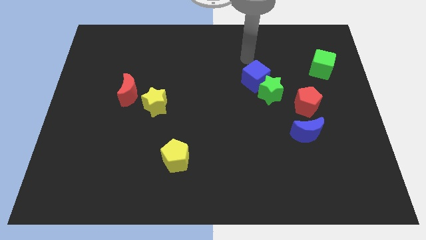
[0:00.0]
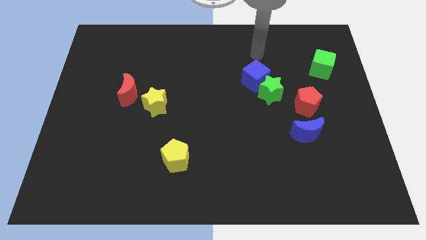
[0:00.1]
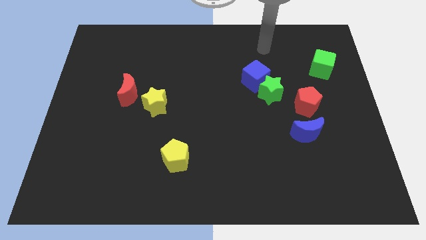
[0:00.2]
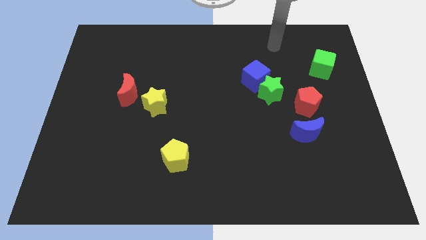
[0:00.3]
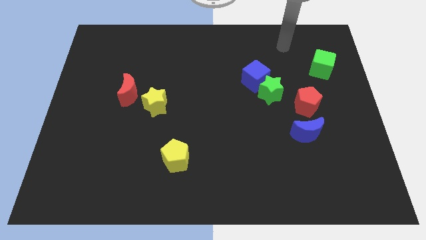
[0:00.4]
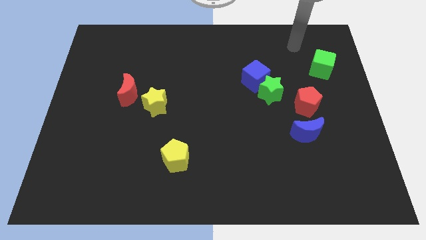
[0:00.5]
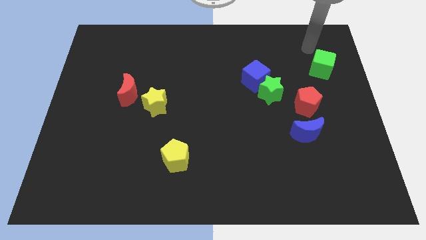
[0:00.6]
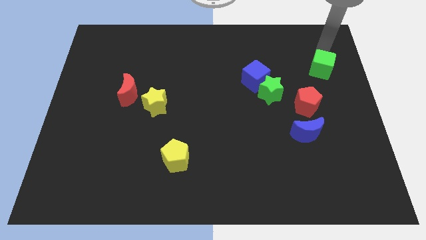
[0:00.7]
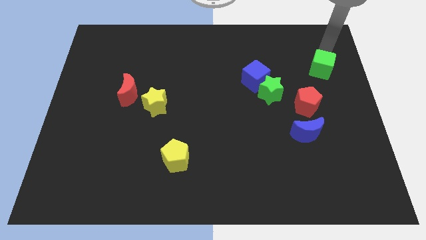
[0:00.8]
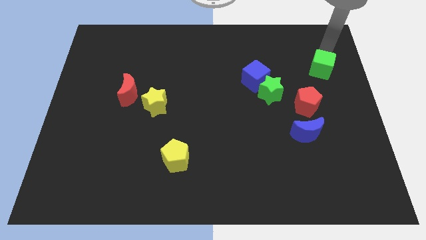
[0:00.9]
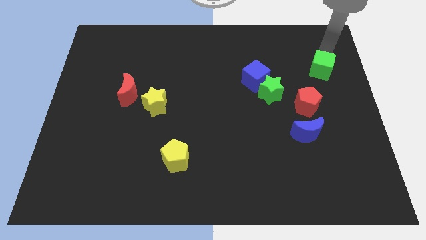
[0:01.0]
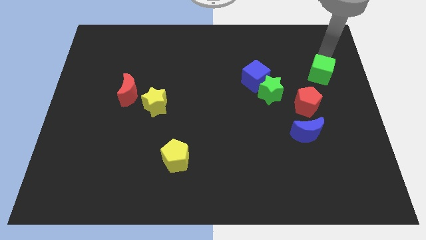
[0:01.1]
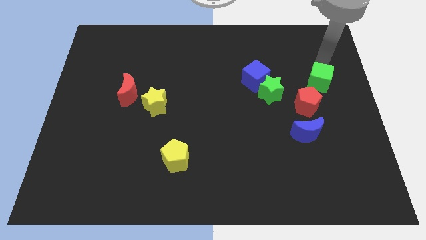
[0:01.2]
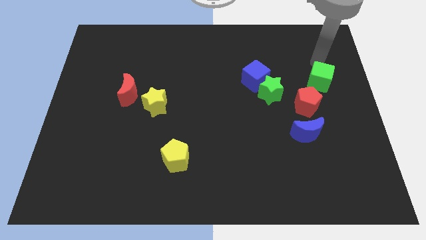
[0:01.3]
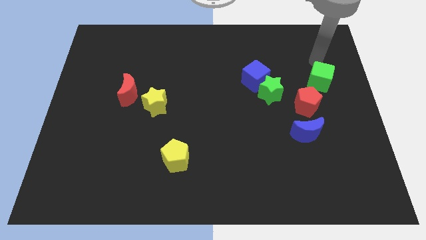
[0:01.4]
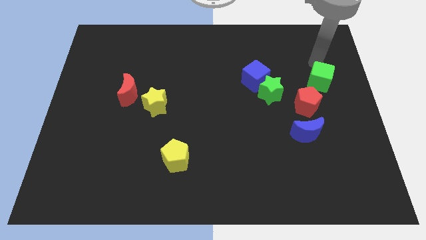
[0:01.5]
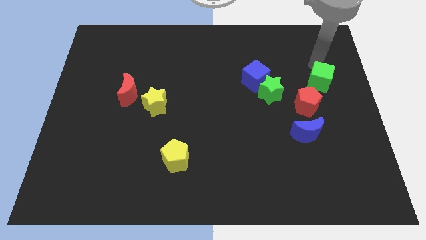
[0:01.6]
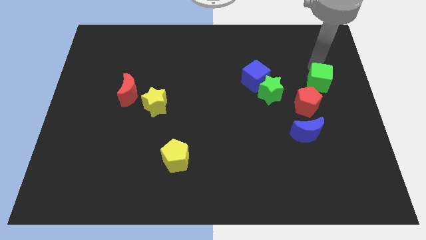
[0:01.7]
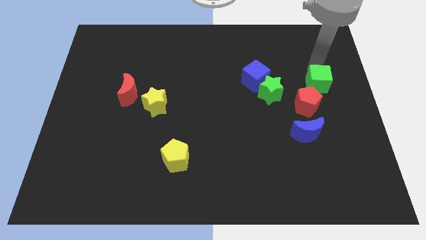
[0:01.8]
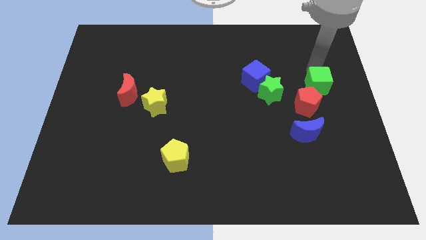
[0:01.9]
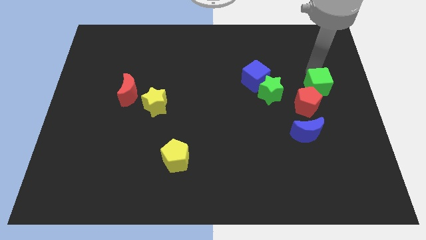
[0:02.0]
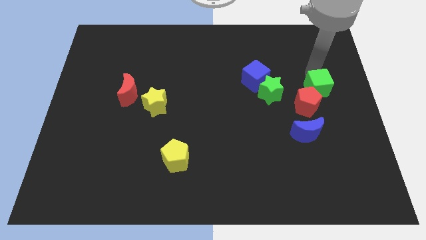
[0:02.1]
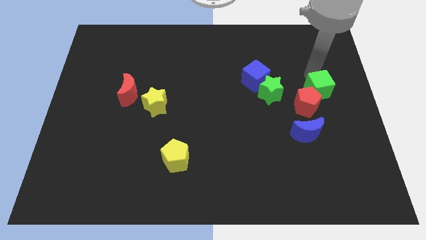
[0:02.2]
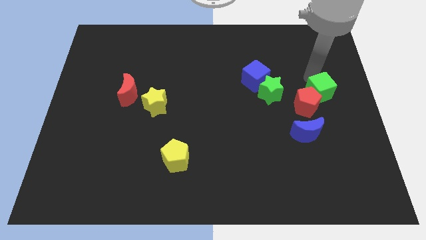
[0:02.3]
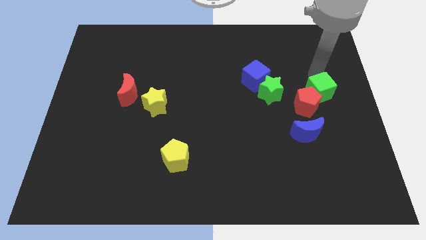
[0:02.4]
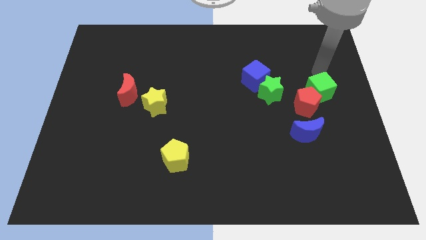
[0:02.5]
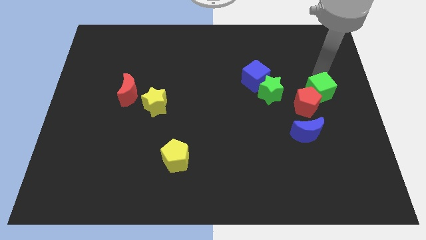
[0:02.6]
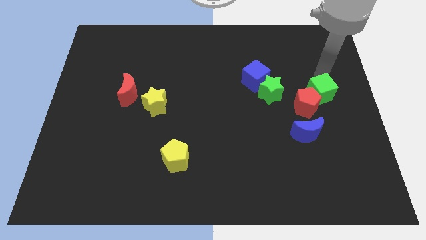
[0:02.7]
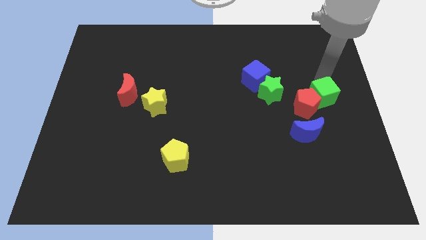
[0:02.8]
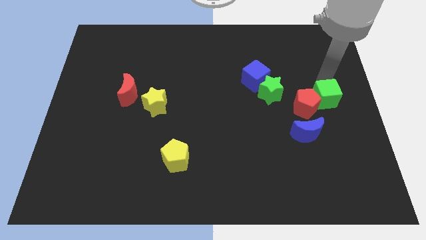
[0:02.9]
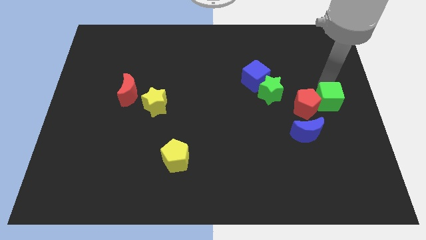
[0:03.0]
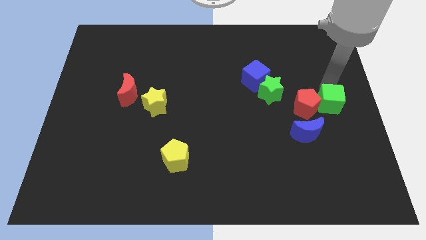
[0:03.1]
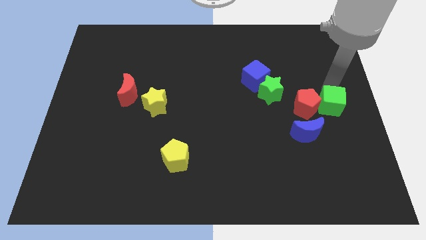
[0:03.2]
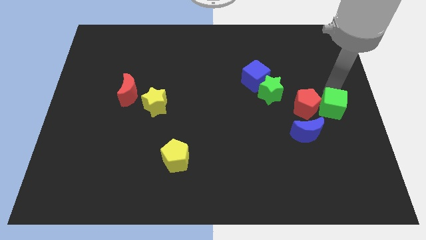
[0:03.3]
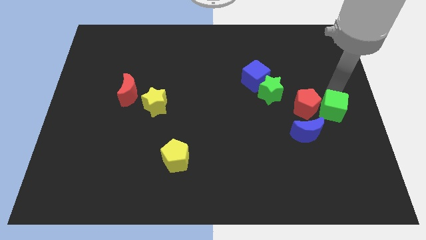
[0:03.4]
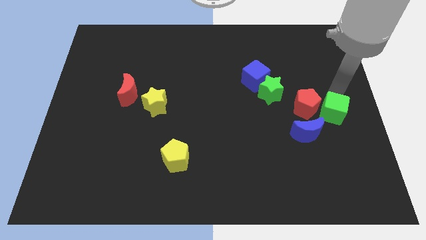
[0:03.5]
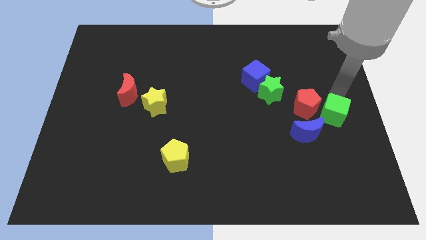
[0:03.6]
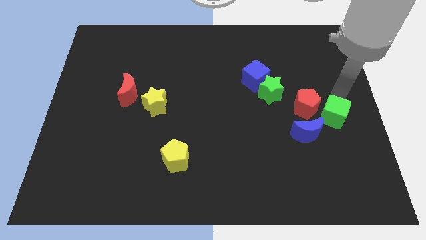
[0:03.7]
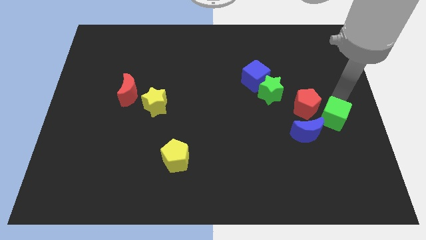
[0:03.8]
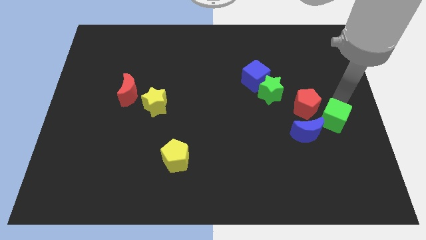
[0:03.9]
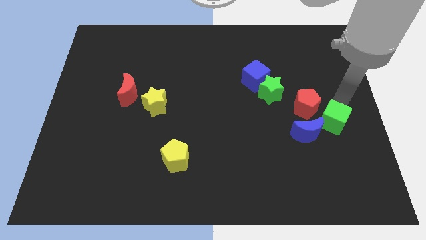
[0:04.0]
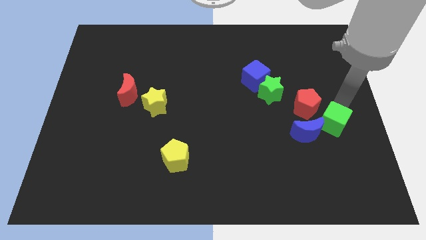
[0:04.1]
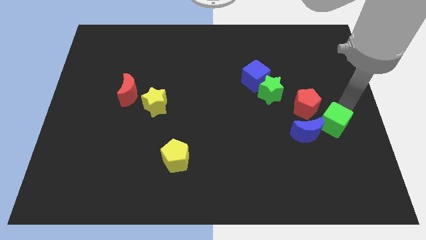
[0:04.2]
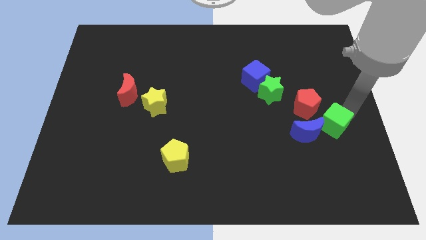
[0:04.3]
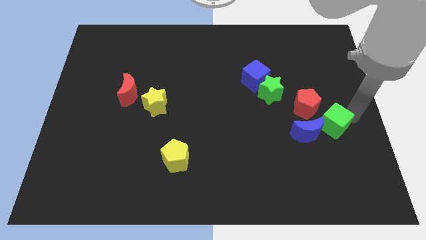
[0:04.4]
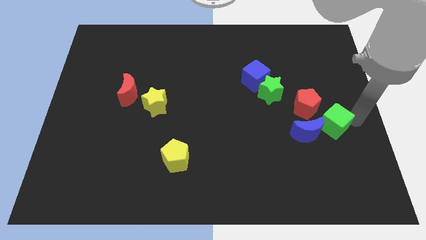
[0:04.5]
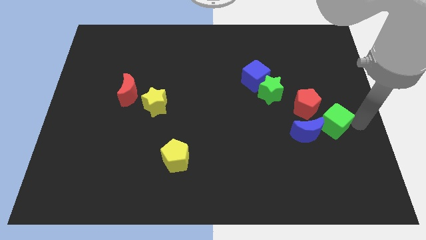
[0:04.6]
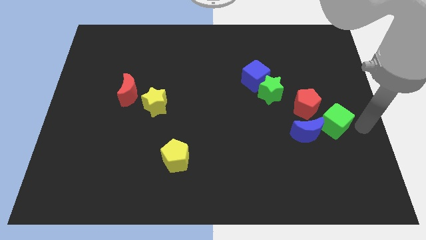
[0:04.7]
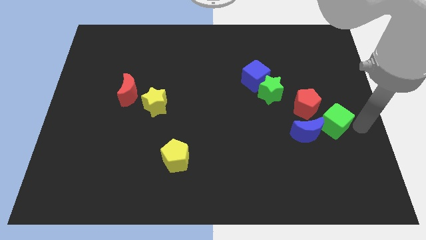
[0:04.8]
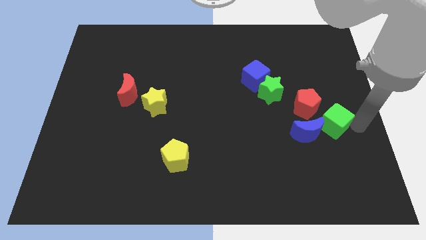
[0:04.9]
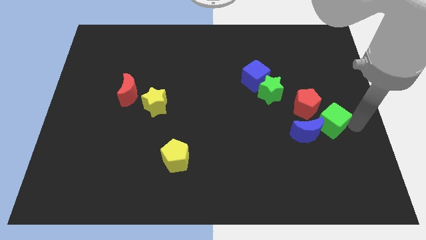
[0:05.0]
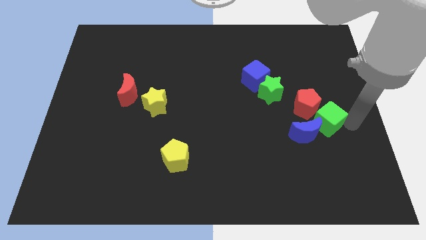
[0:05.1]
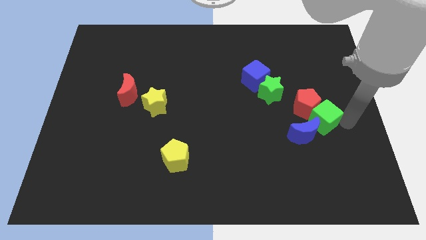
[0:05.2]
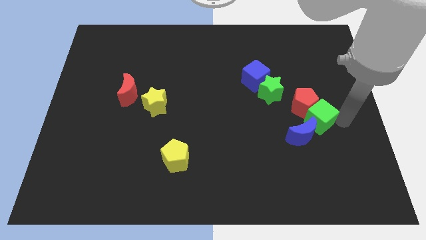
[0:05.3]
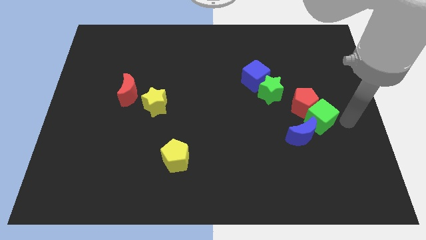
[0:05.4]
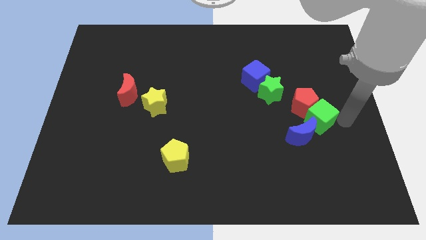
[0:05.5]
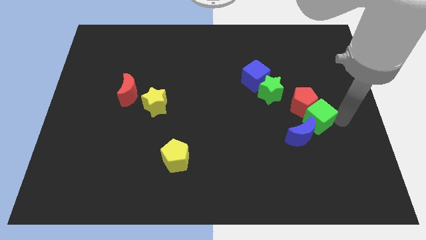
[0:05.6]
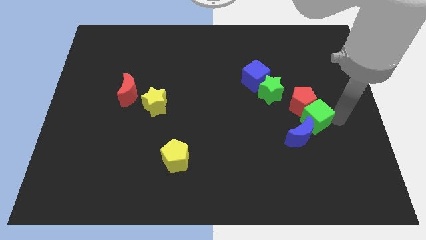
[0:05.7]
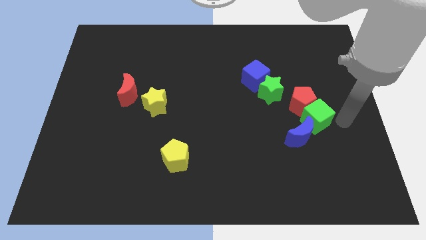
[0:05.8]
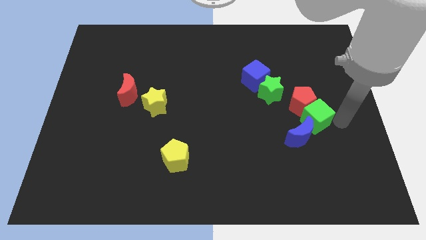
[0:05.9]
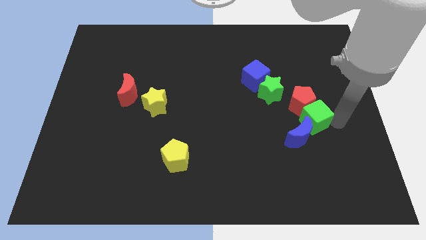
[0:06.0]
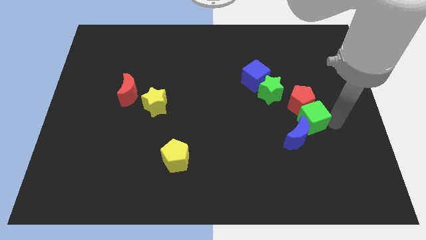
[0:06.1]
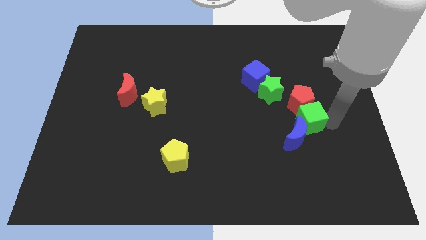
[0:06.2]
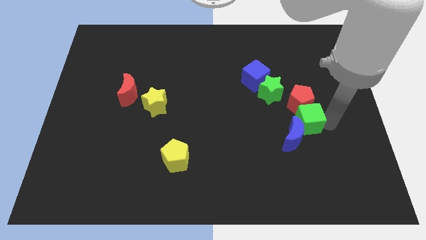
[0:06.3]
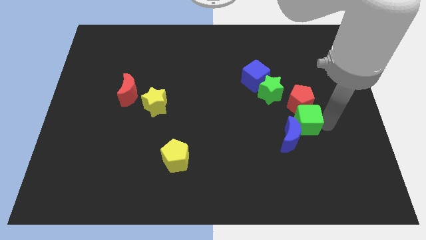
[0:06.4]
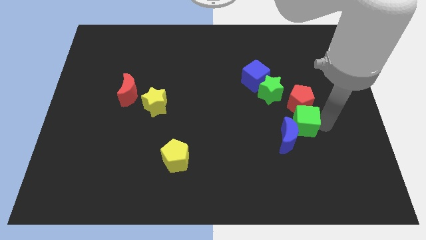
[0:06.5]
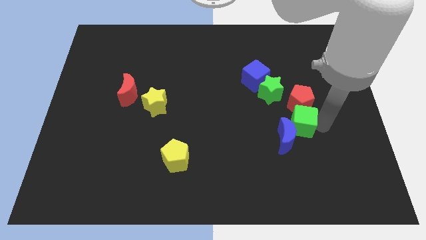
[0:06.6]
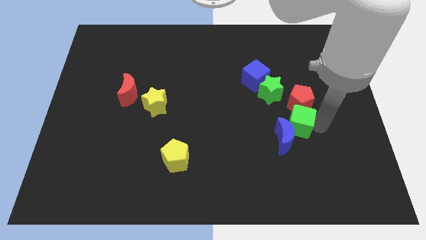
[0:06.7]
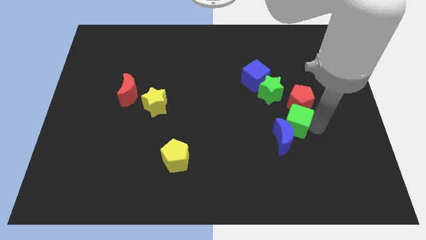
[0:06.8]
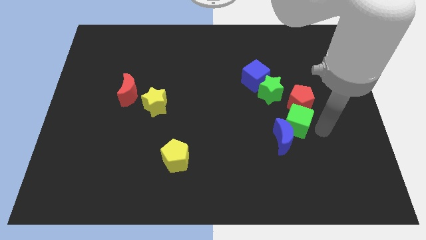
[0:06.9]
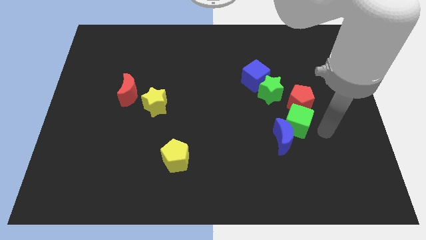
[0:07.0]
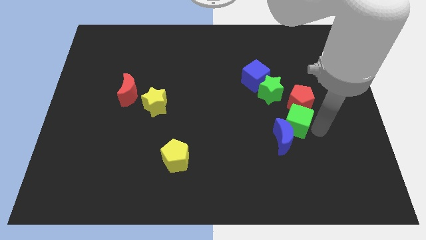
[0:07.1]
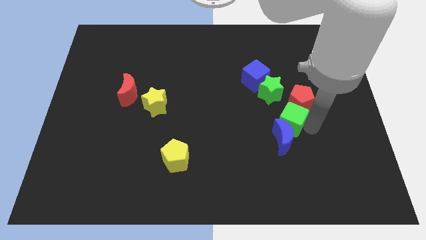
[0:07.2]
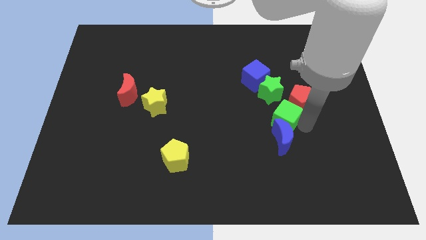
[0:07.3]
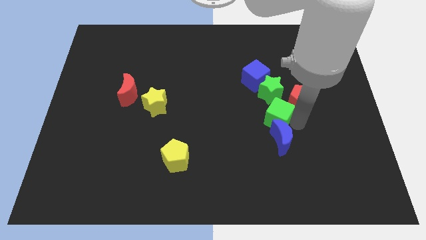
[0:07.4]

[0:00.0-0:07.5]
slide the green cube below the blue cube

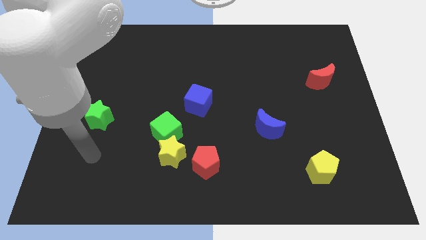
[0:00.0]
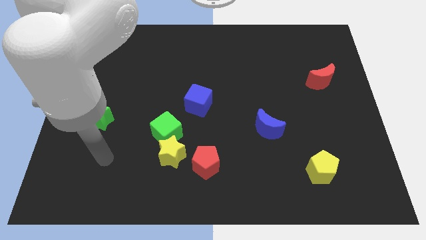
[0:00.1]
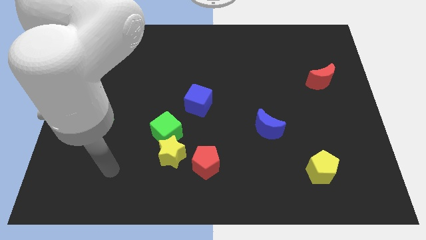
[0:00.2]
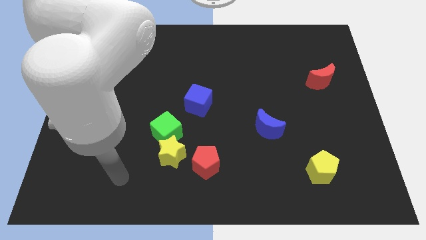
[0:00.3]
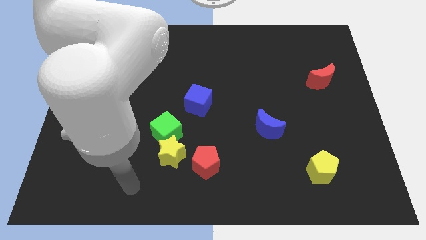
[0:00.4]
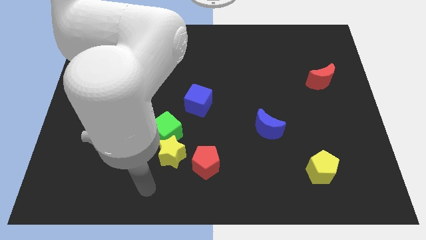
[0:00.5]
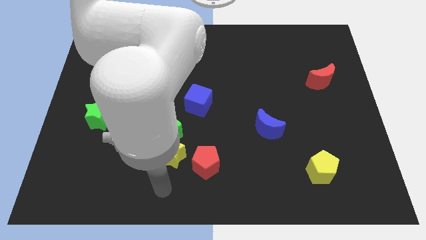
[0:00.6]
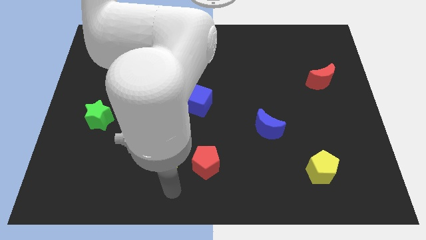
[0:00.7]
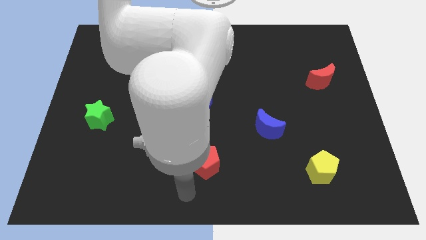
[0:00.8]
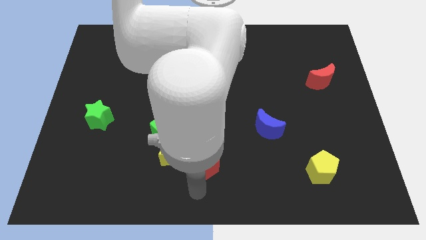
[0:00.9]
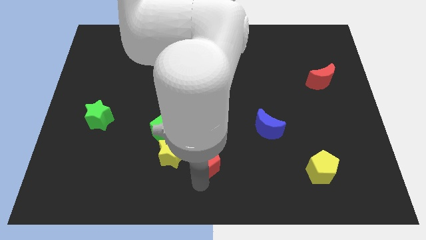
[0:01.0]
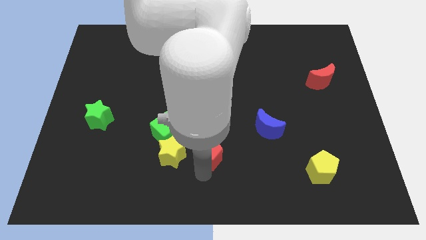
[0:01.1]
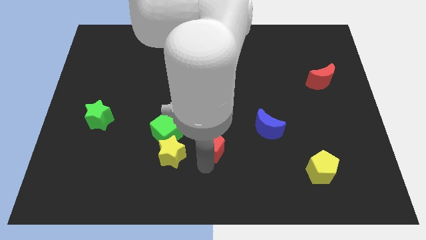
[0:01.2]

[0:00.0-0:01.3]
move the red pentagon to the right of the green cube
